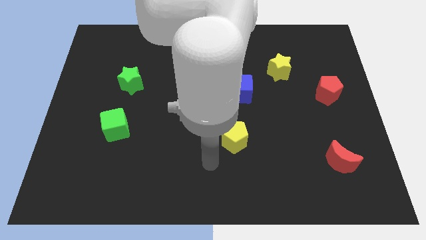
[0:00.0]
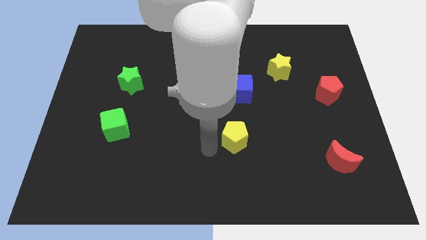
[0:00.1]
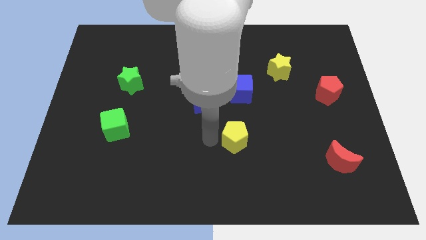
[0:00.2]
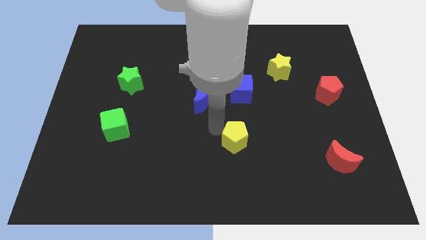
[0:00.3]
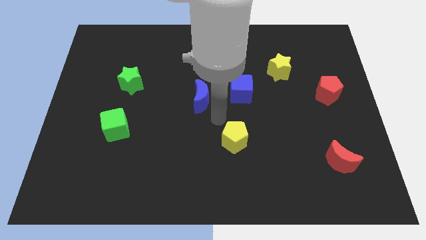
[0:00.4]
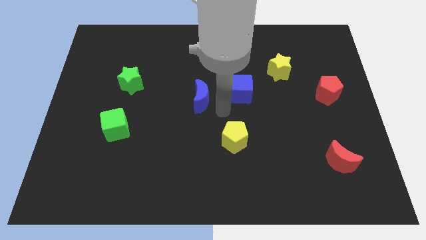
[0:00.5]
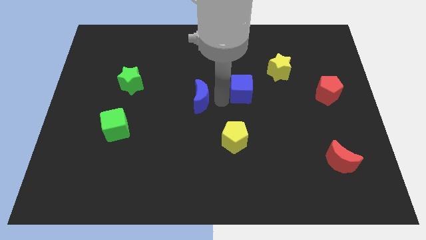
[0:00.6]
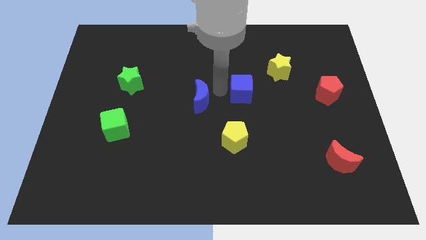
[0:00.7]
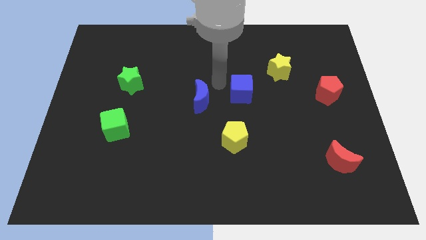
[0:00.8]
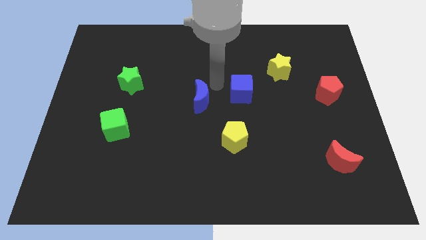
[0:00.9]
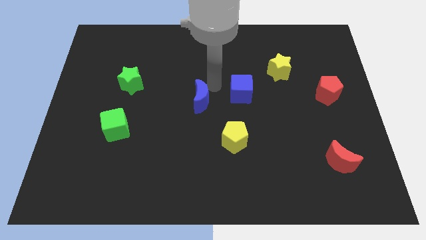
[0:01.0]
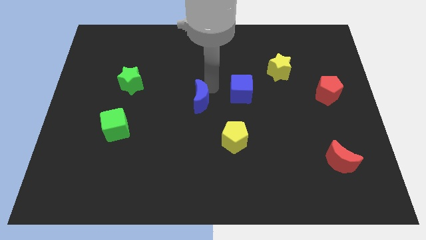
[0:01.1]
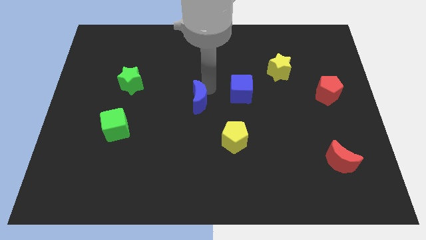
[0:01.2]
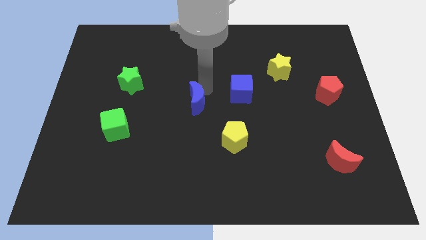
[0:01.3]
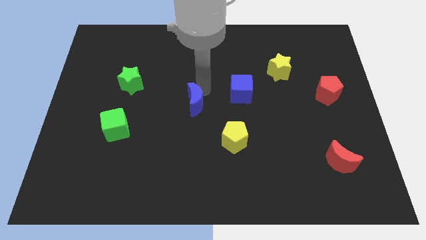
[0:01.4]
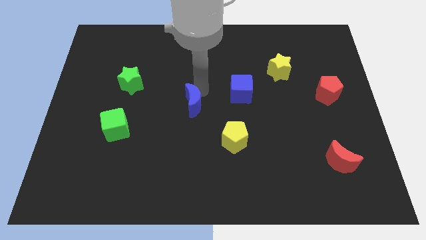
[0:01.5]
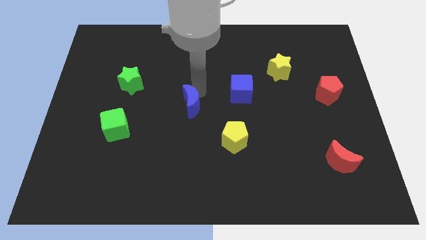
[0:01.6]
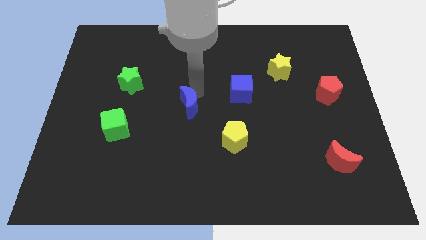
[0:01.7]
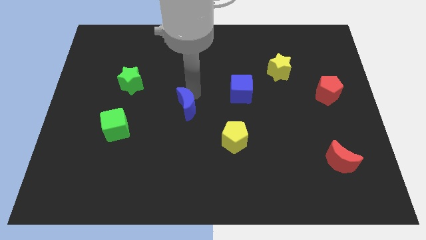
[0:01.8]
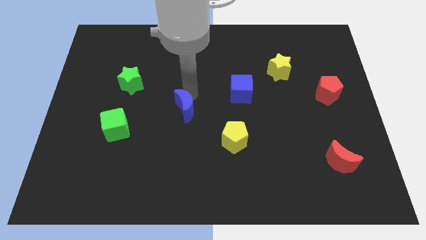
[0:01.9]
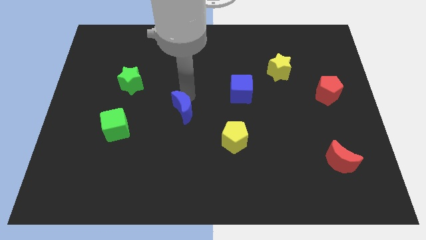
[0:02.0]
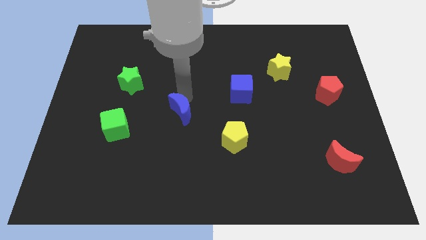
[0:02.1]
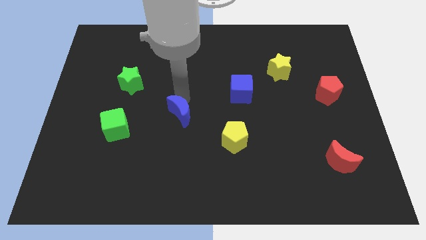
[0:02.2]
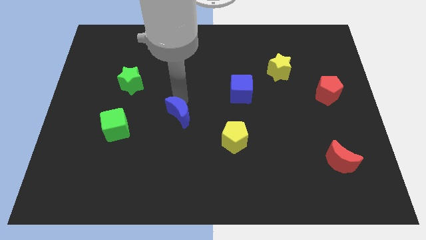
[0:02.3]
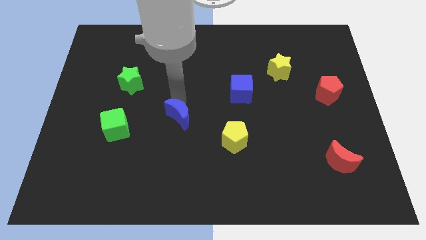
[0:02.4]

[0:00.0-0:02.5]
push the blue moon diagonally down and to the left slightly

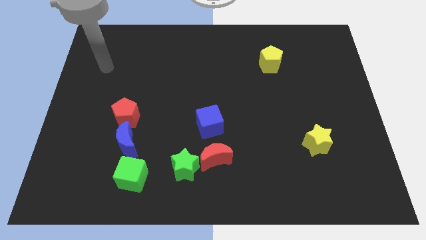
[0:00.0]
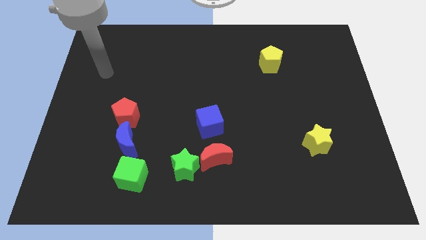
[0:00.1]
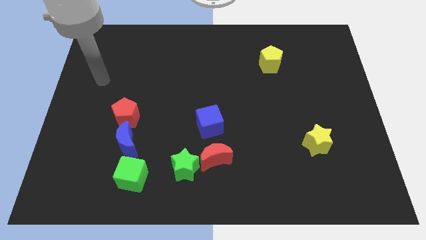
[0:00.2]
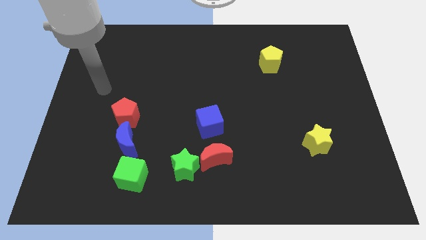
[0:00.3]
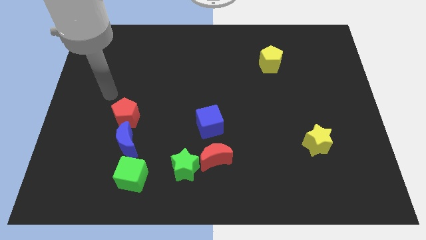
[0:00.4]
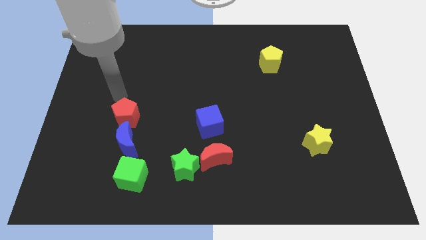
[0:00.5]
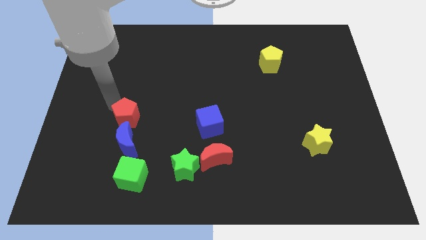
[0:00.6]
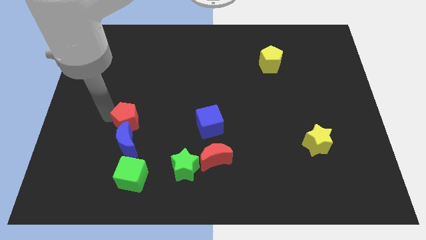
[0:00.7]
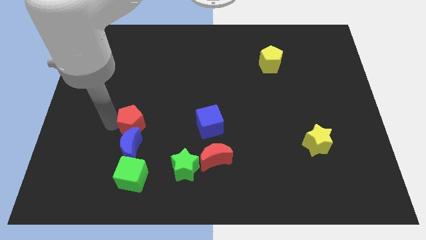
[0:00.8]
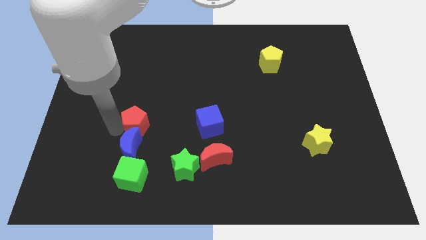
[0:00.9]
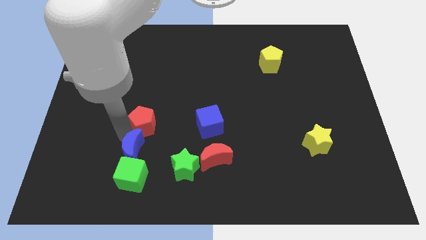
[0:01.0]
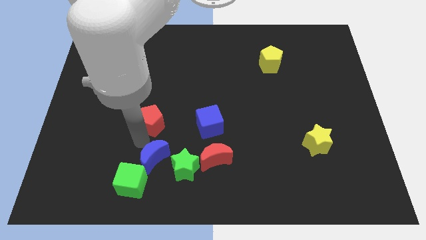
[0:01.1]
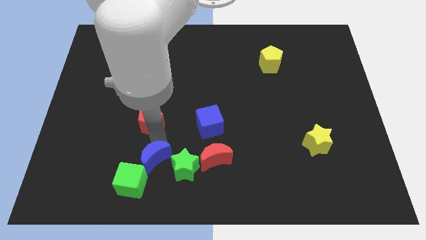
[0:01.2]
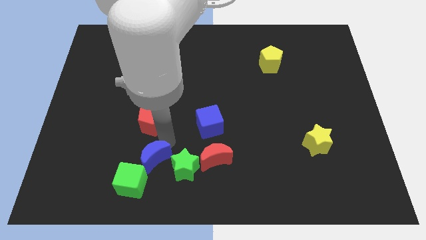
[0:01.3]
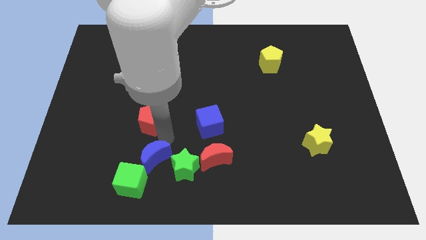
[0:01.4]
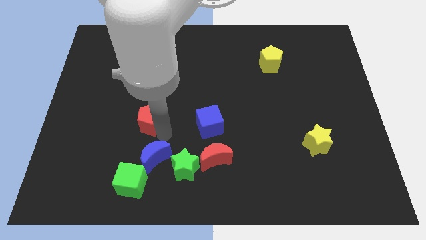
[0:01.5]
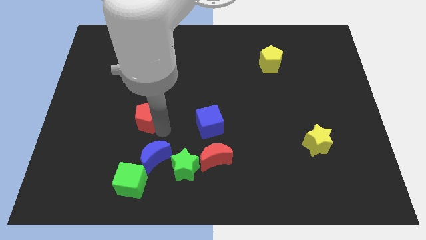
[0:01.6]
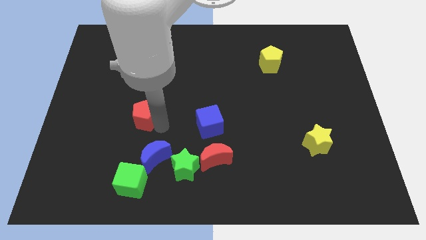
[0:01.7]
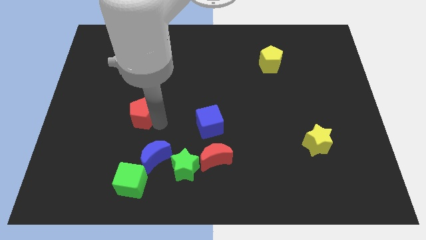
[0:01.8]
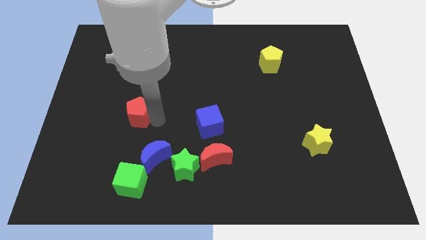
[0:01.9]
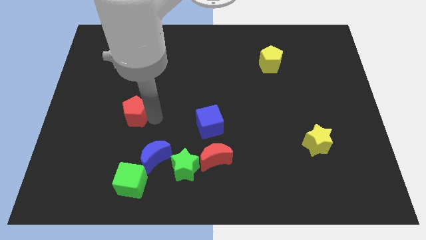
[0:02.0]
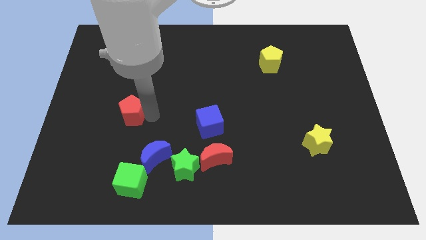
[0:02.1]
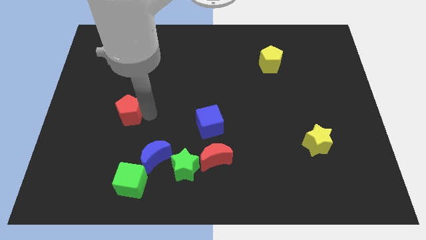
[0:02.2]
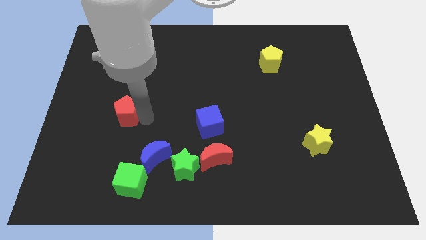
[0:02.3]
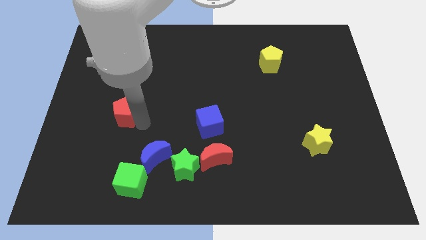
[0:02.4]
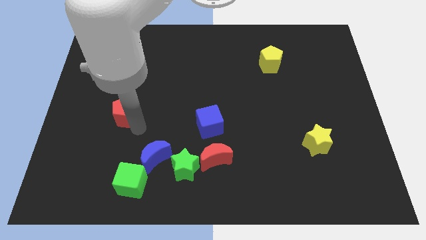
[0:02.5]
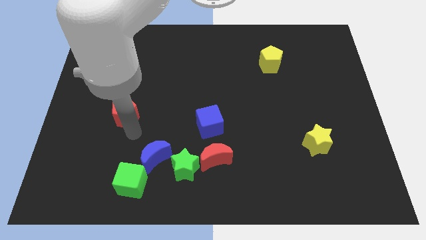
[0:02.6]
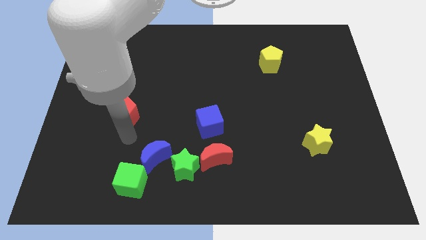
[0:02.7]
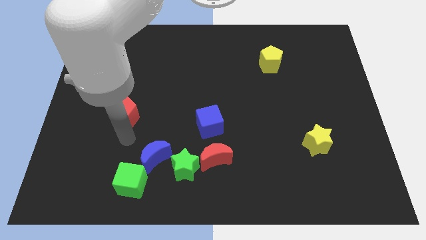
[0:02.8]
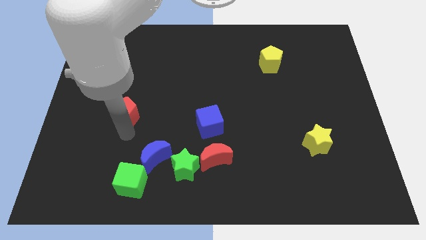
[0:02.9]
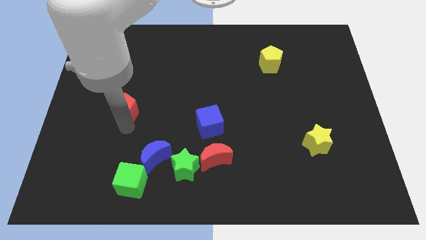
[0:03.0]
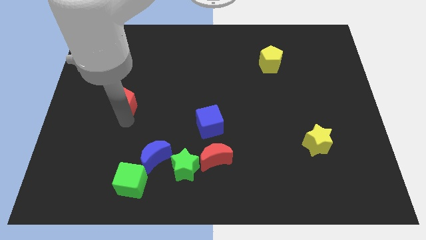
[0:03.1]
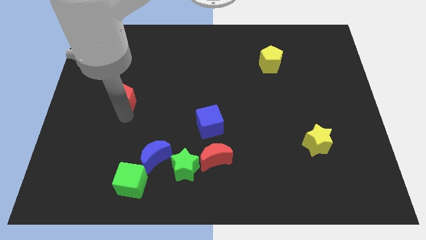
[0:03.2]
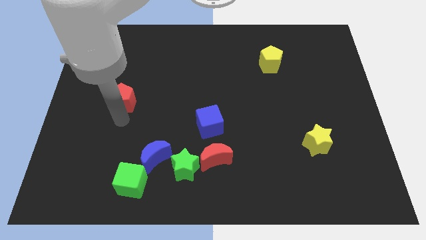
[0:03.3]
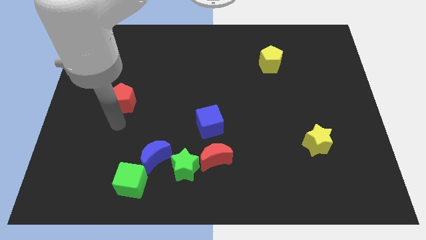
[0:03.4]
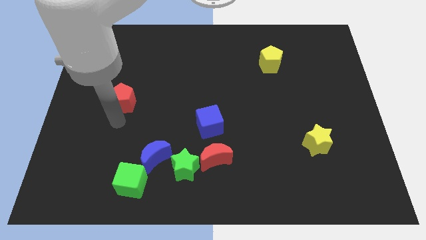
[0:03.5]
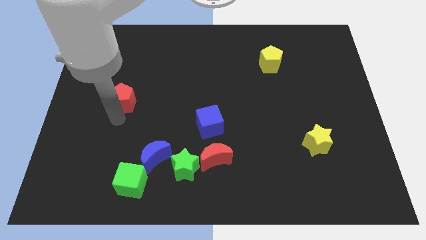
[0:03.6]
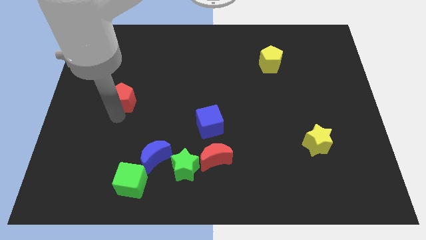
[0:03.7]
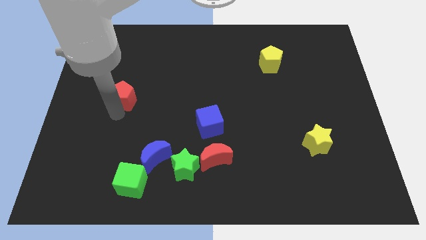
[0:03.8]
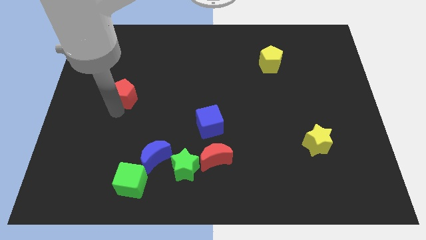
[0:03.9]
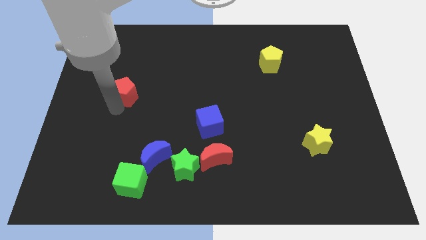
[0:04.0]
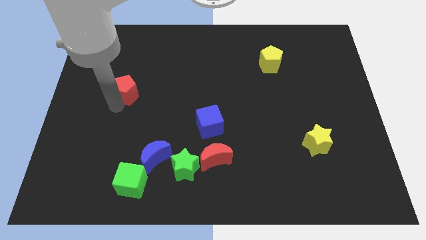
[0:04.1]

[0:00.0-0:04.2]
move the red pentagon somewhat upwards

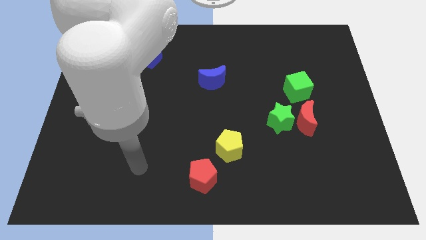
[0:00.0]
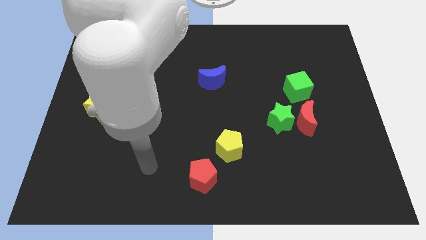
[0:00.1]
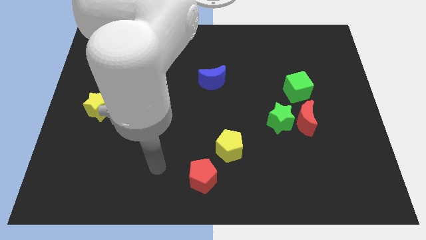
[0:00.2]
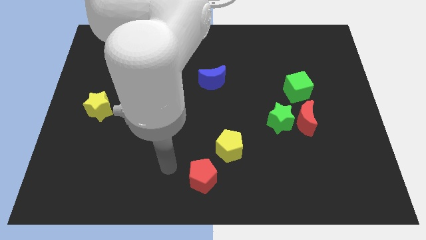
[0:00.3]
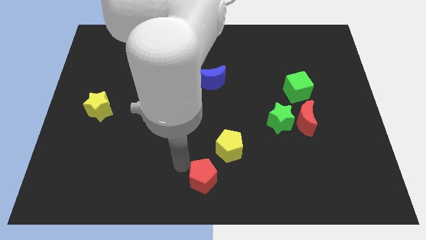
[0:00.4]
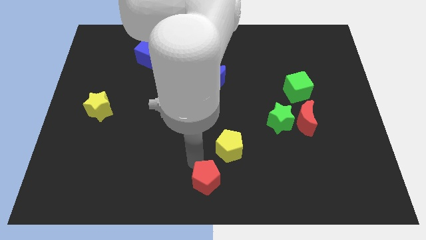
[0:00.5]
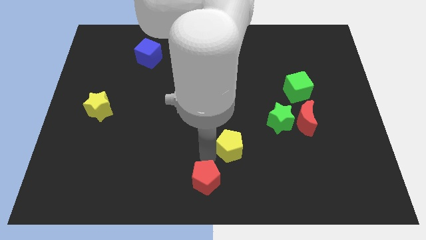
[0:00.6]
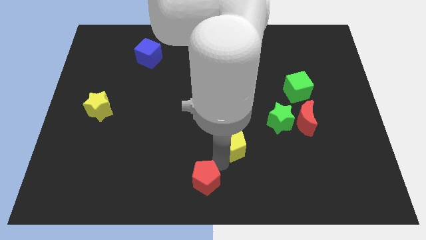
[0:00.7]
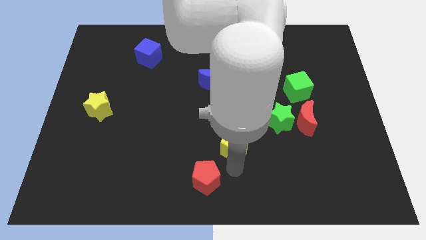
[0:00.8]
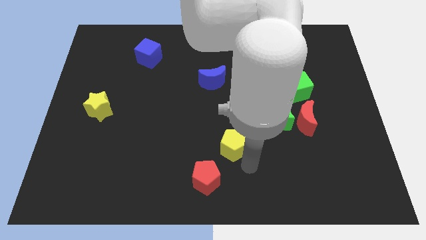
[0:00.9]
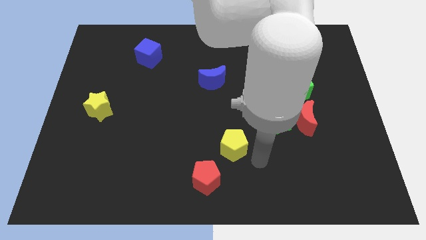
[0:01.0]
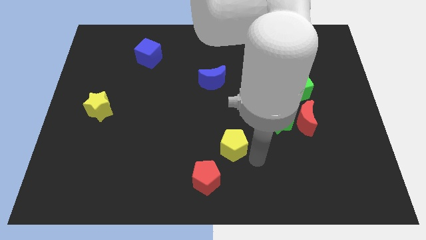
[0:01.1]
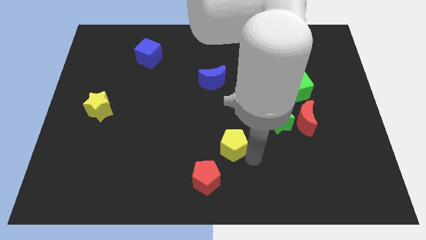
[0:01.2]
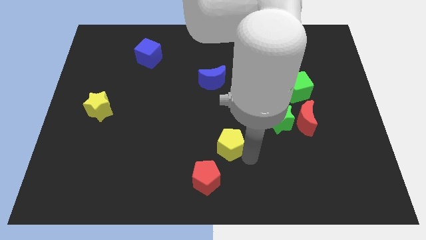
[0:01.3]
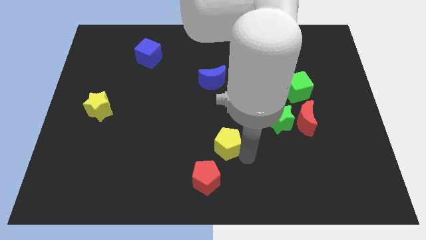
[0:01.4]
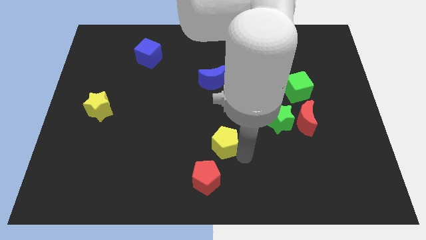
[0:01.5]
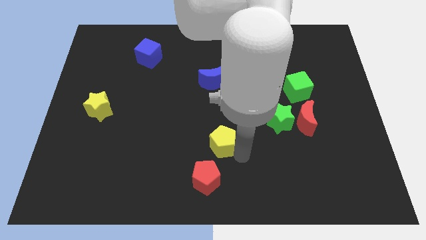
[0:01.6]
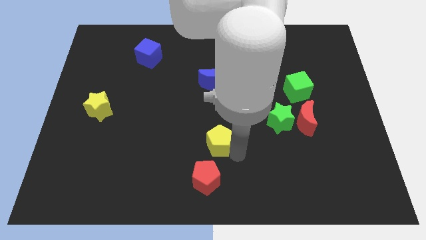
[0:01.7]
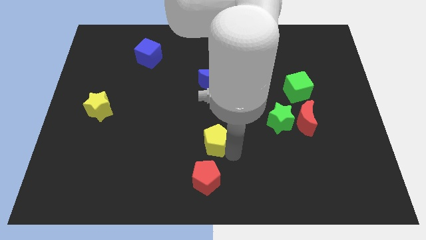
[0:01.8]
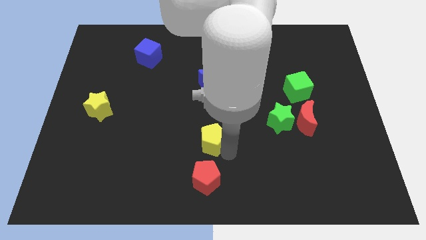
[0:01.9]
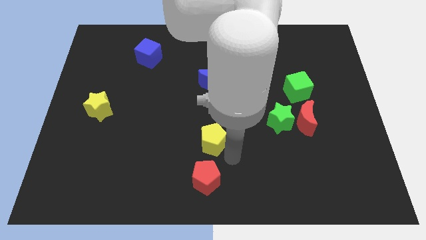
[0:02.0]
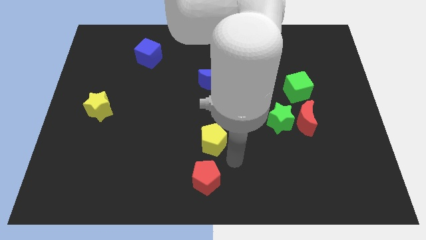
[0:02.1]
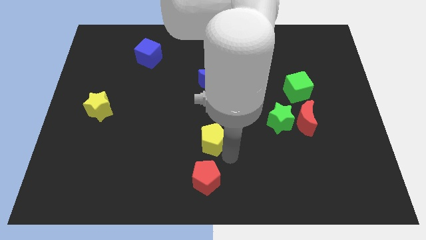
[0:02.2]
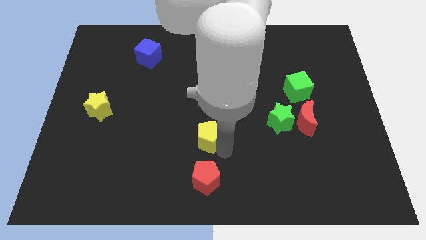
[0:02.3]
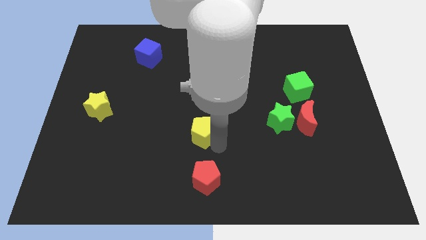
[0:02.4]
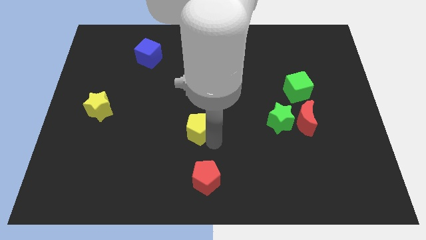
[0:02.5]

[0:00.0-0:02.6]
slightly slide the yellow pentagon up and left diagonally
